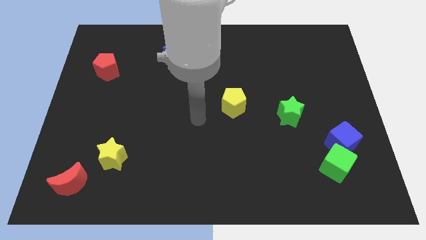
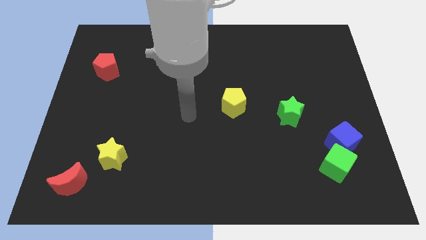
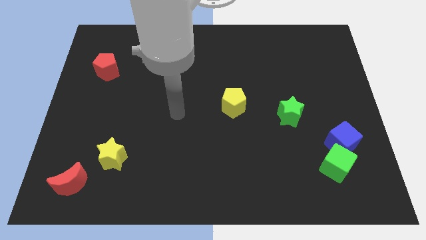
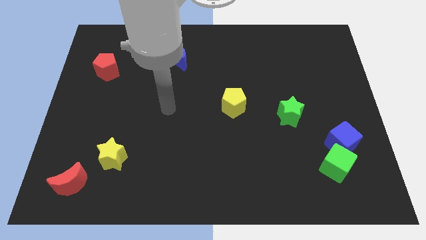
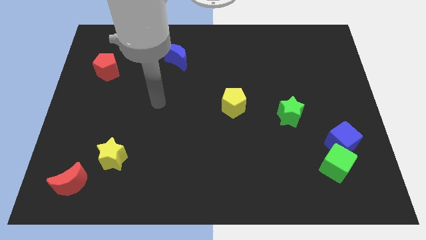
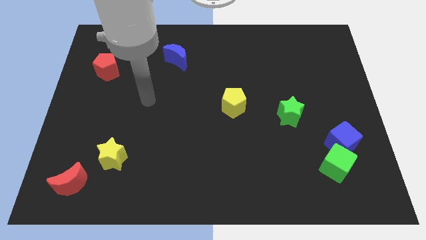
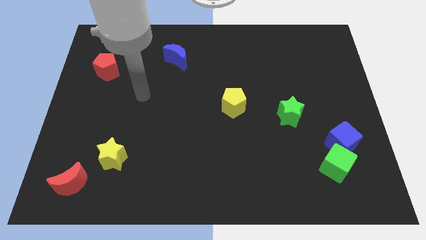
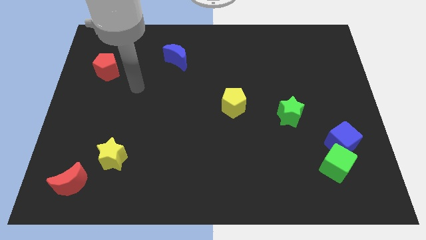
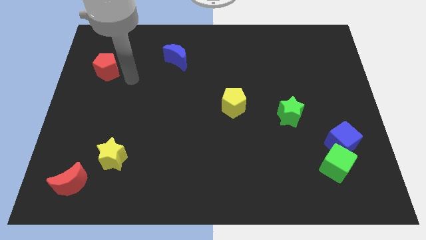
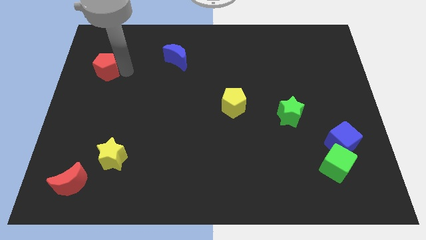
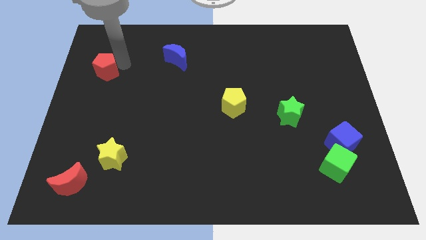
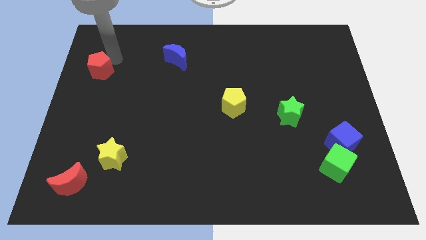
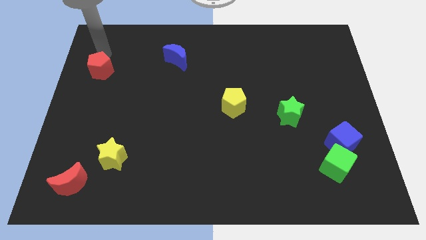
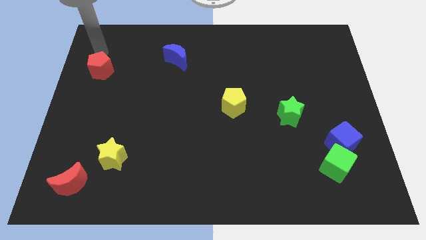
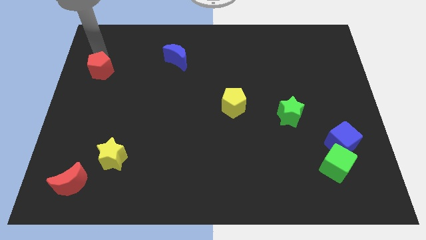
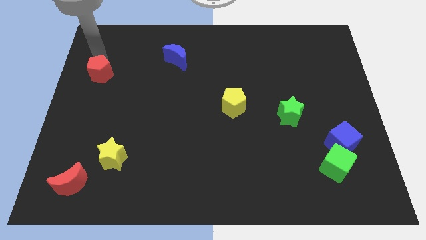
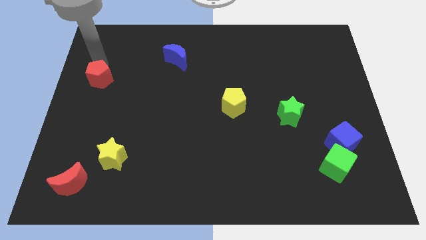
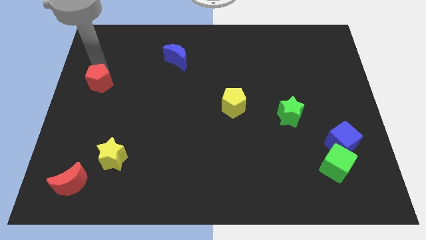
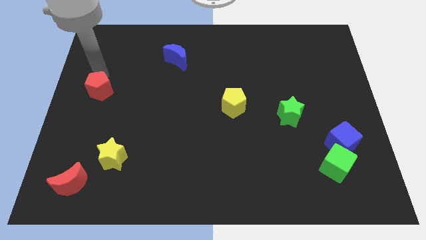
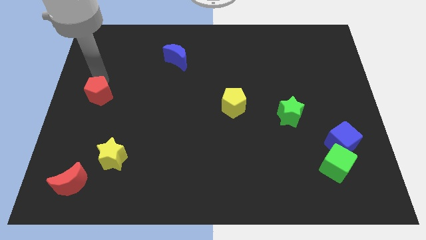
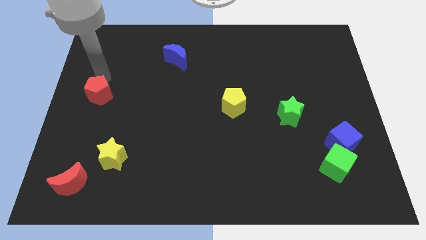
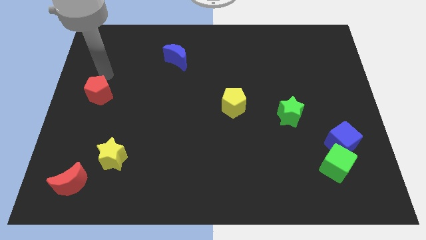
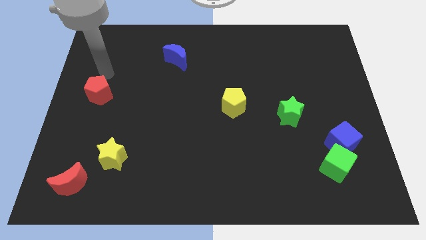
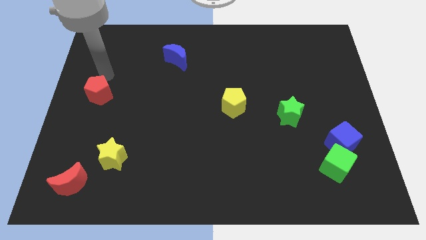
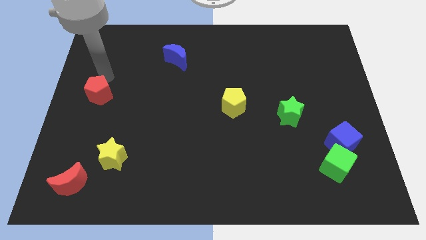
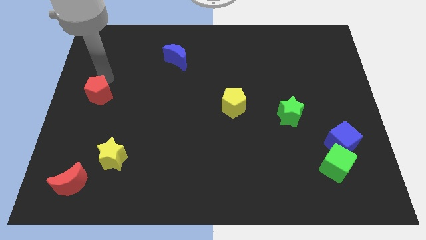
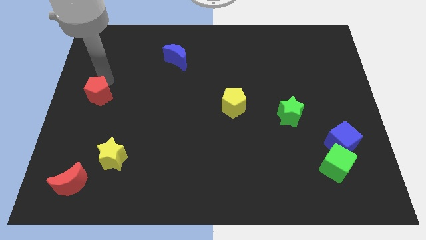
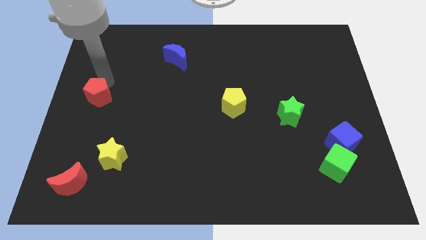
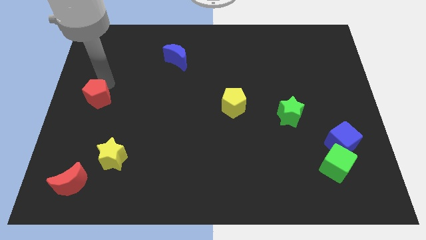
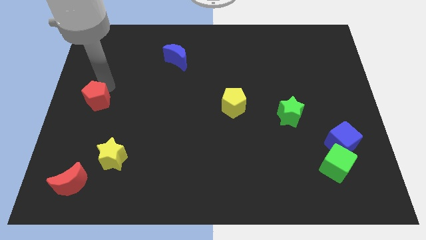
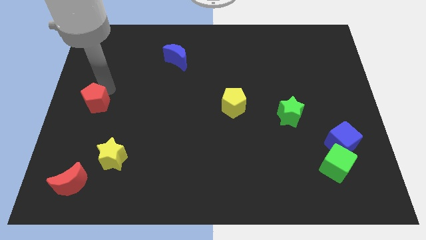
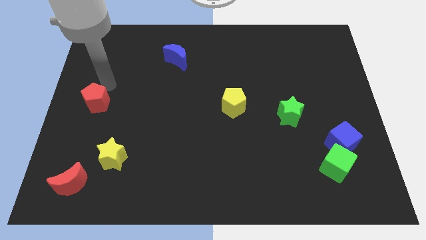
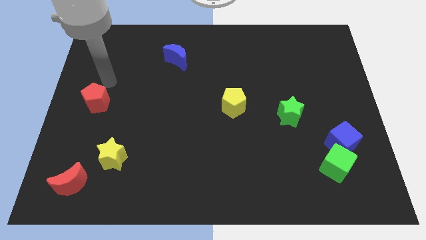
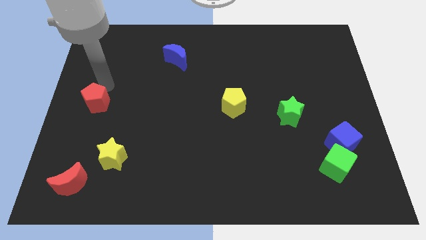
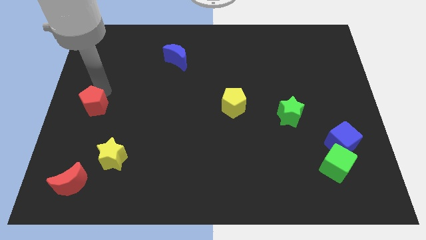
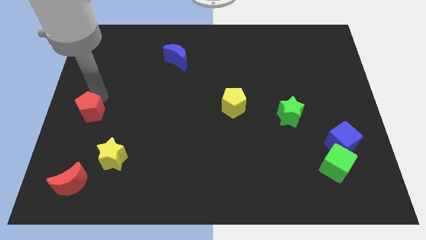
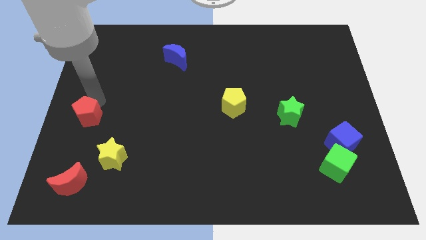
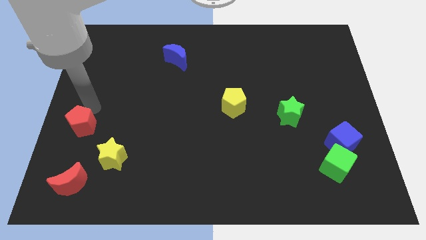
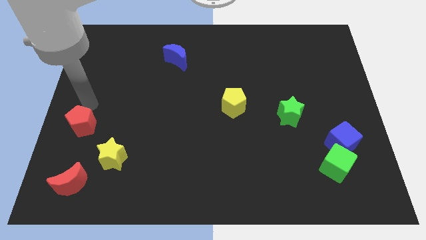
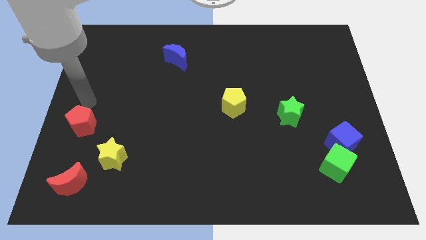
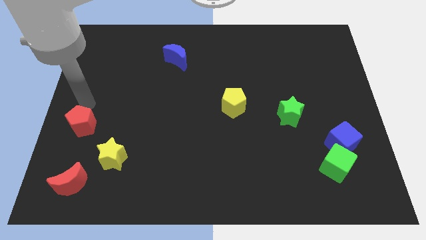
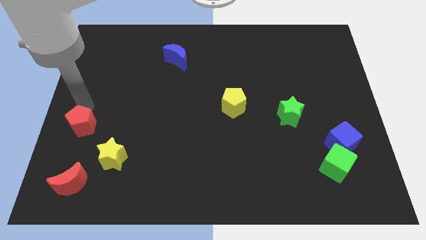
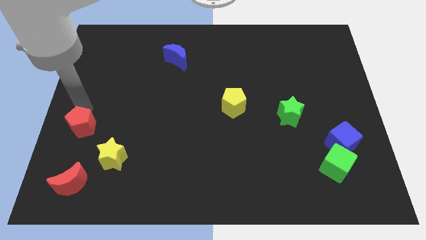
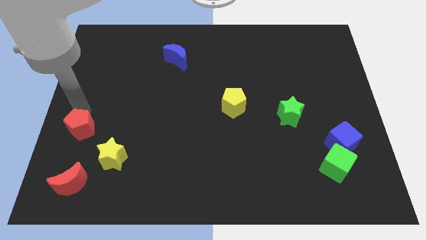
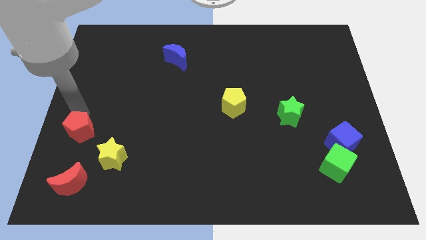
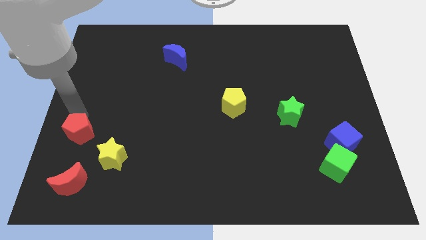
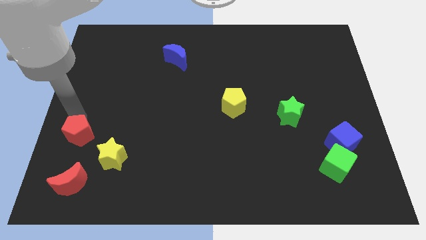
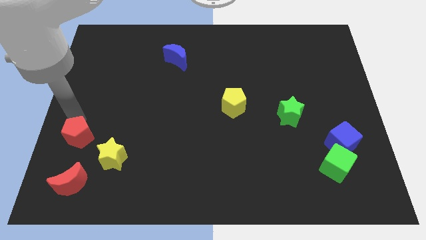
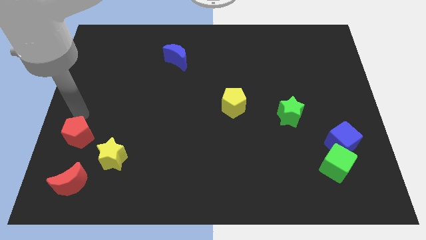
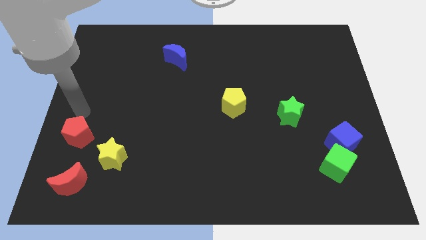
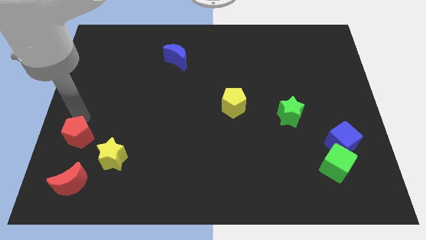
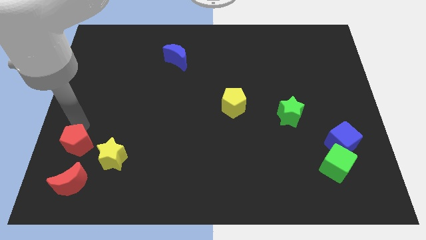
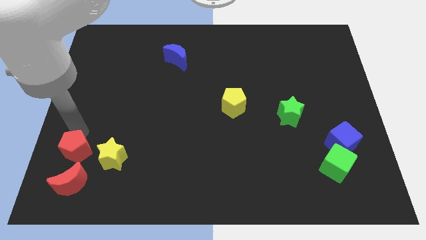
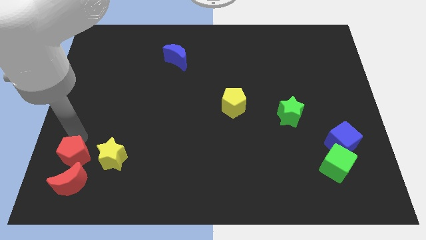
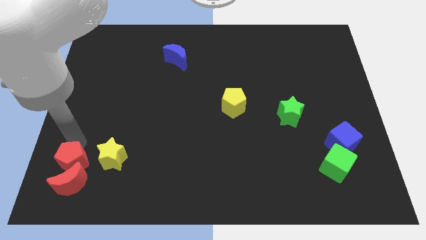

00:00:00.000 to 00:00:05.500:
push the red pentagon next to the red moon

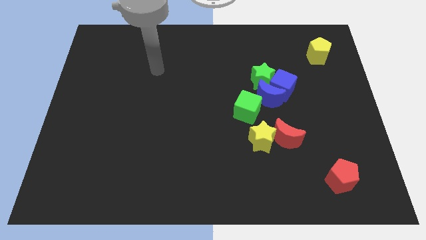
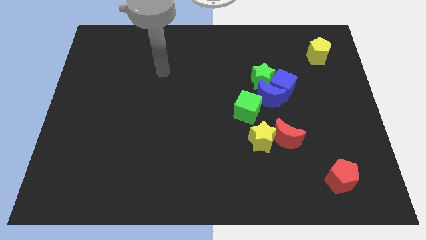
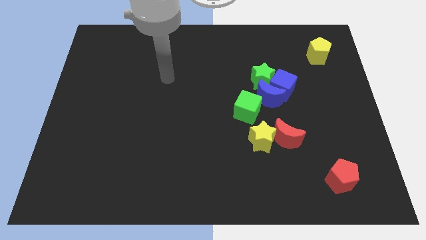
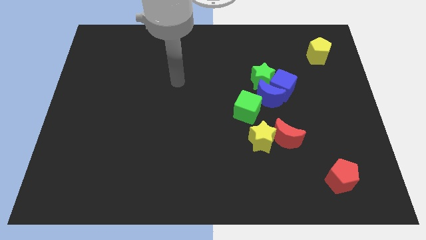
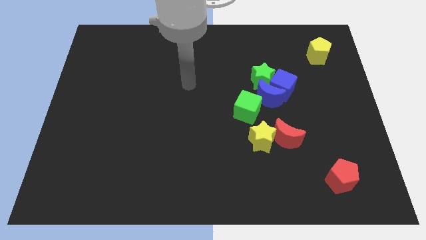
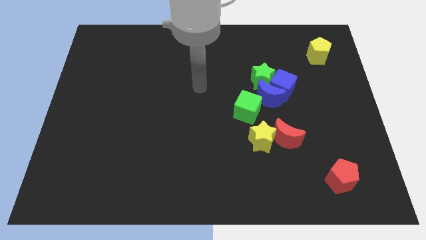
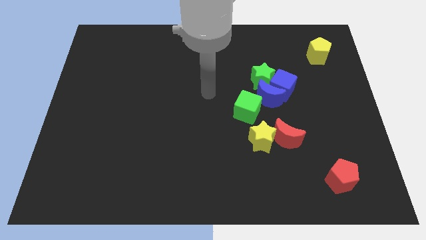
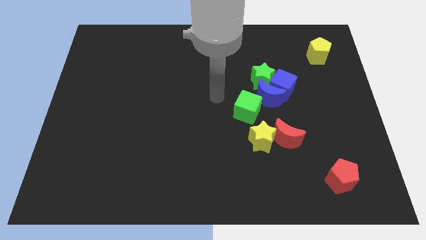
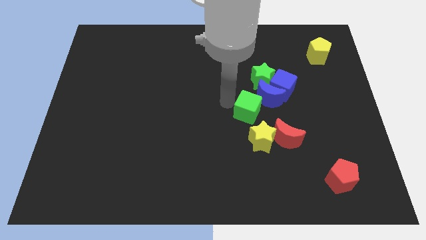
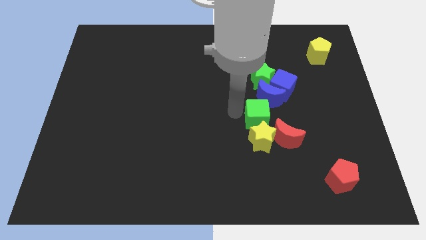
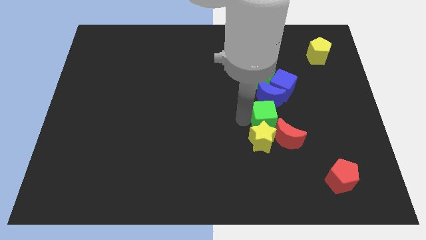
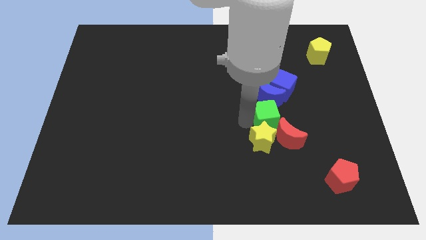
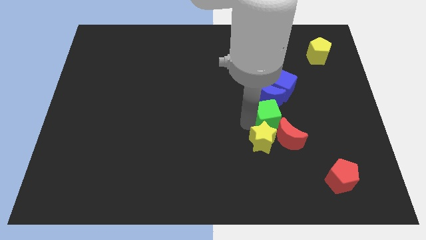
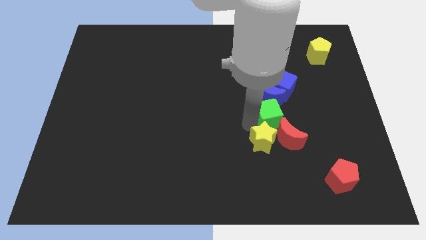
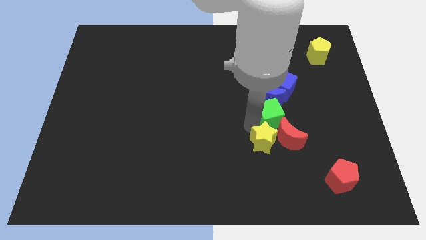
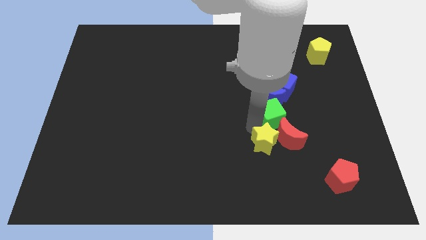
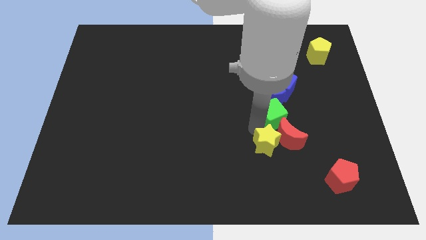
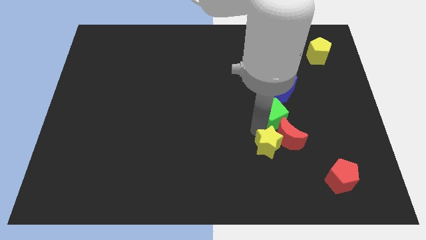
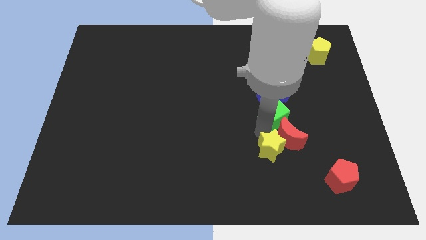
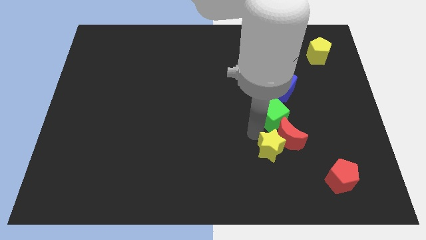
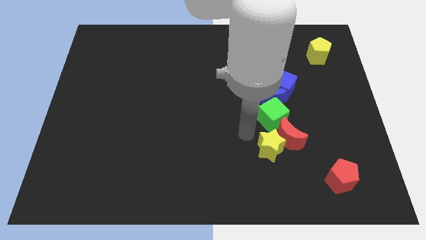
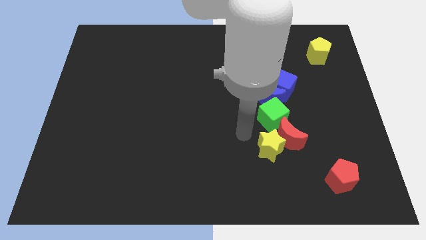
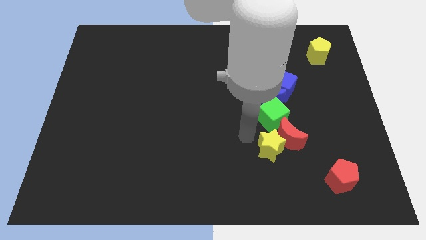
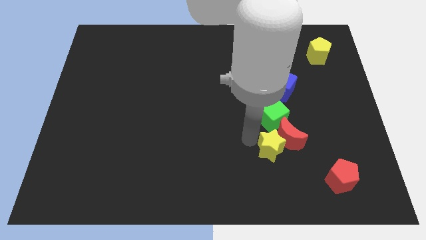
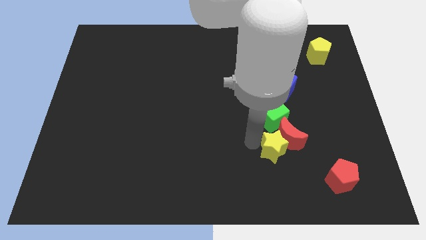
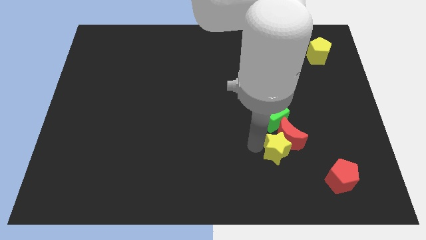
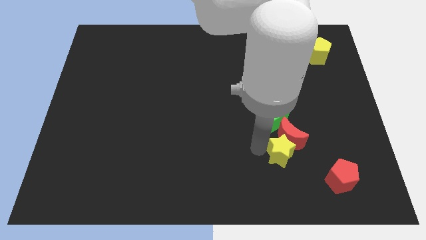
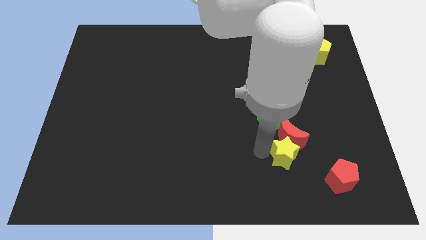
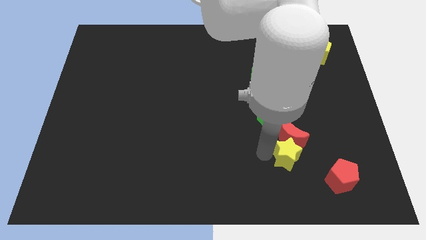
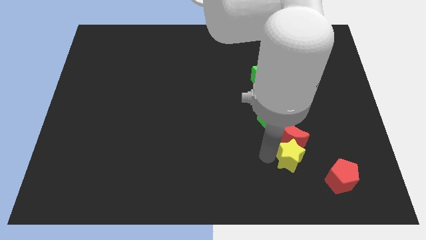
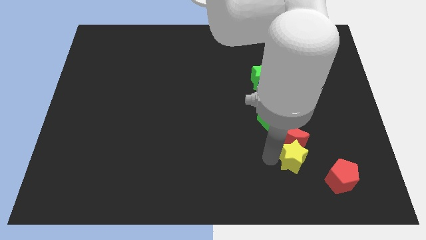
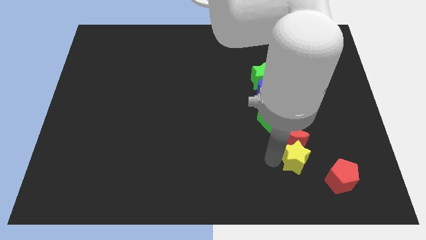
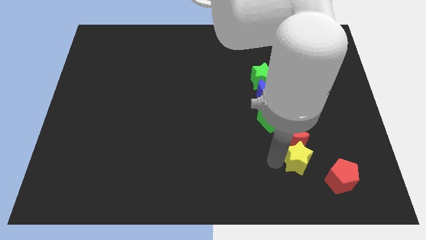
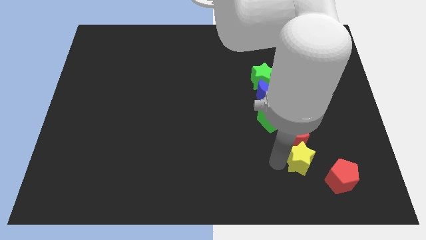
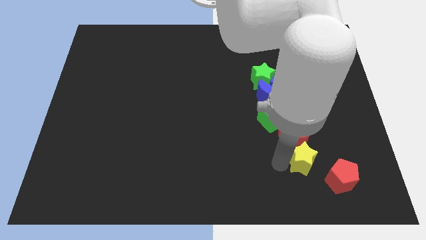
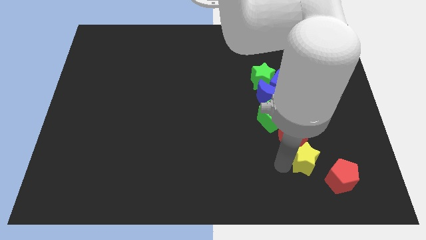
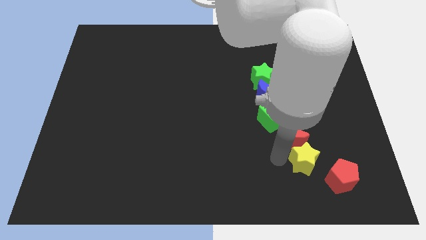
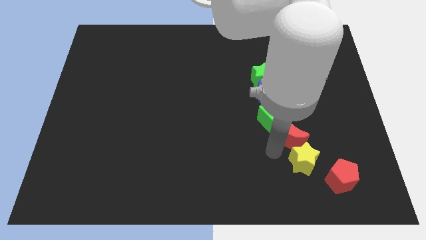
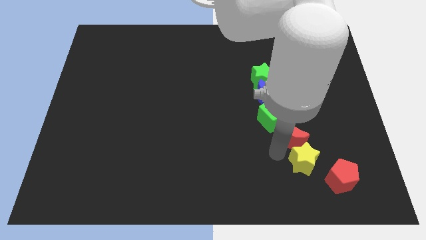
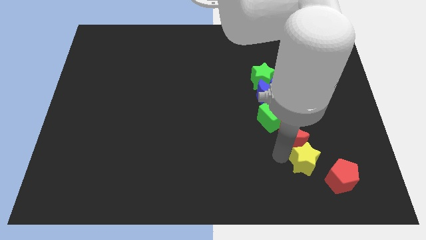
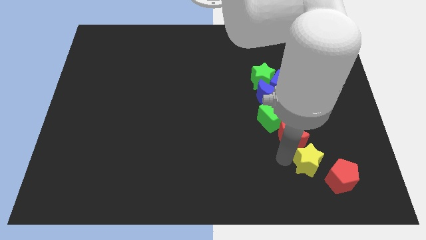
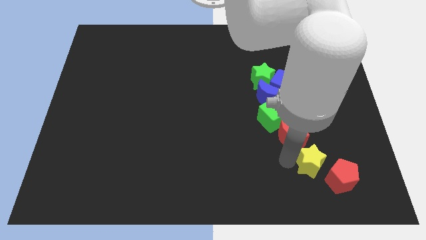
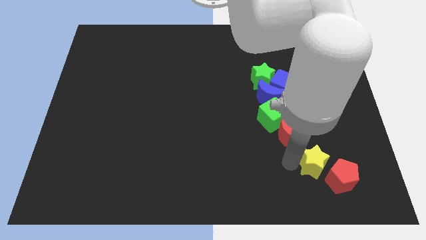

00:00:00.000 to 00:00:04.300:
move the yellow star towards the red pentagon
